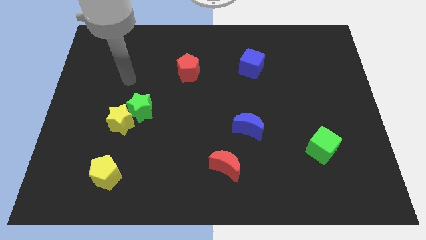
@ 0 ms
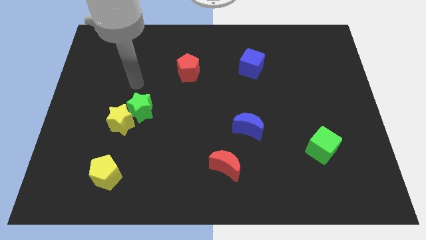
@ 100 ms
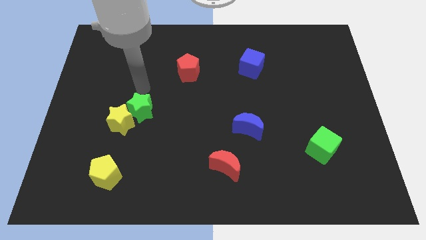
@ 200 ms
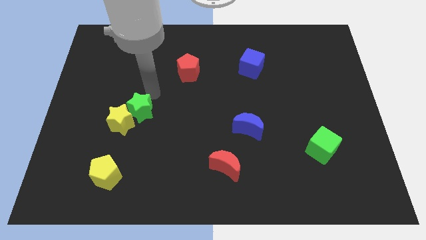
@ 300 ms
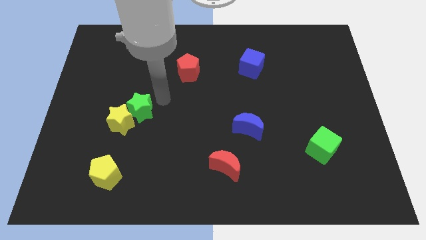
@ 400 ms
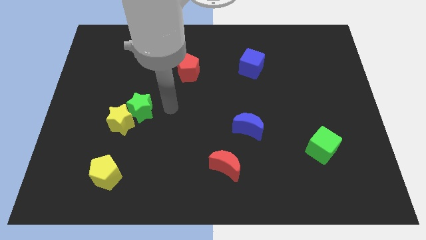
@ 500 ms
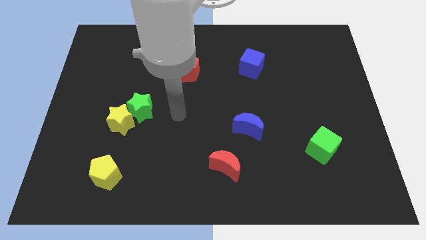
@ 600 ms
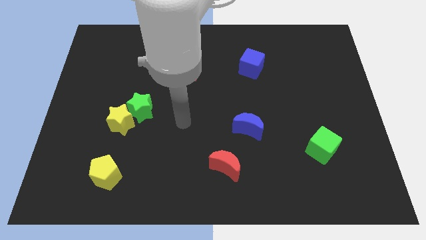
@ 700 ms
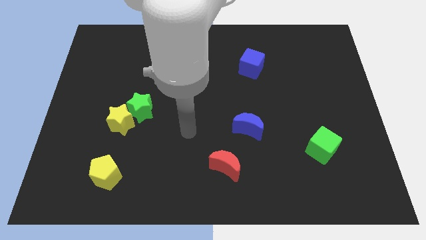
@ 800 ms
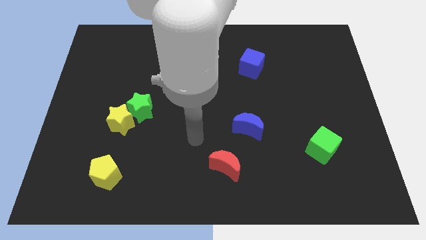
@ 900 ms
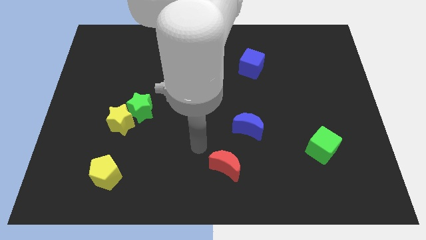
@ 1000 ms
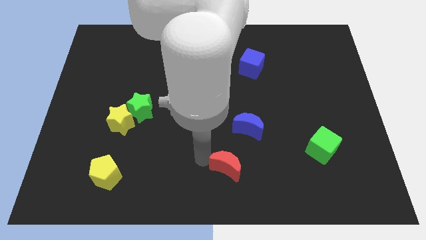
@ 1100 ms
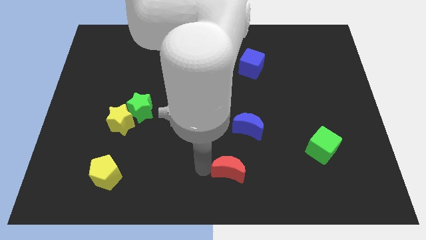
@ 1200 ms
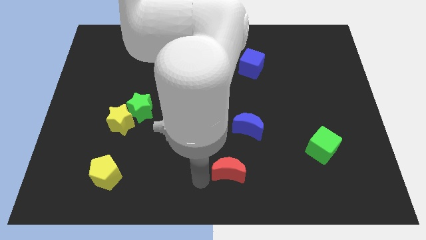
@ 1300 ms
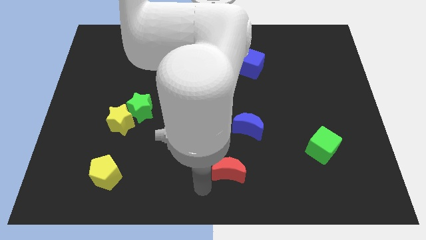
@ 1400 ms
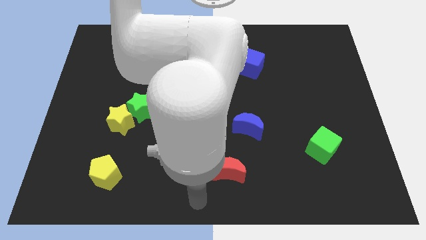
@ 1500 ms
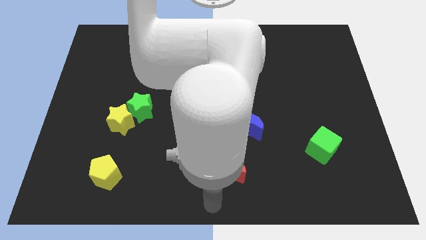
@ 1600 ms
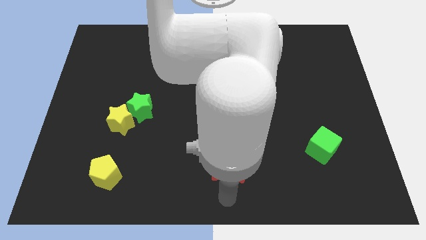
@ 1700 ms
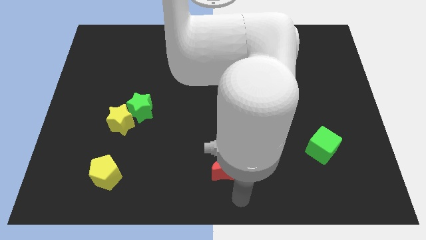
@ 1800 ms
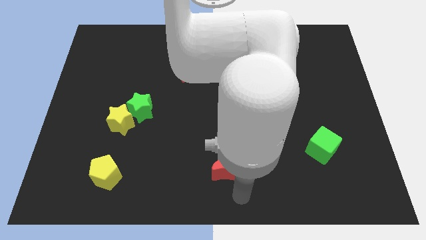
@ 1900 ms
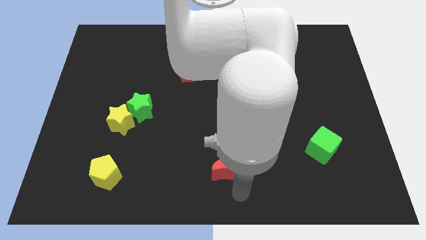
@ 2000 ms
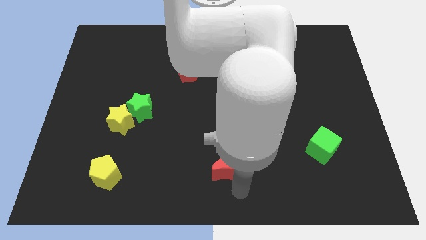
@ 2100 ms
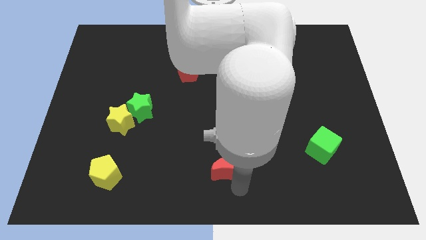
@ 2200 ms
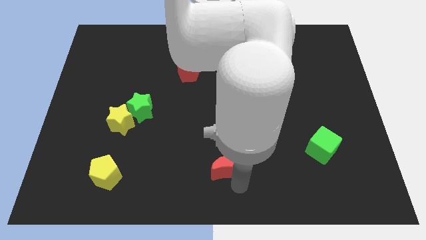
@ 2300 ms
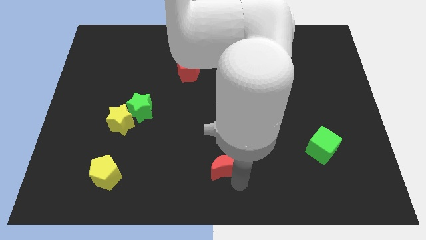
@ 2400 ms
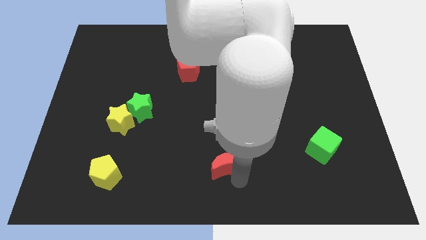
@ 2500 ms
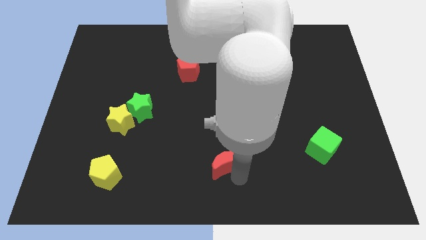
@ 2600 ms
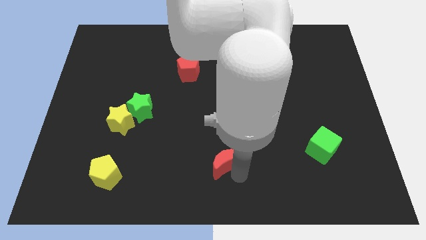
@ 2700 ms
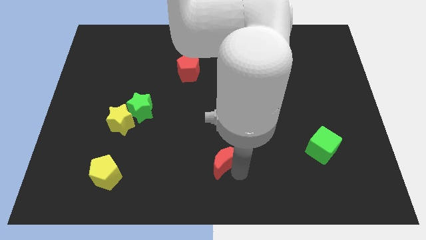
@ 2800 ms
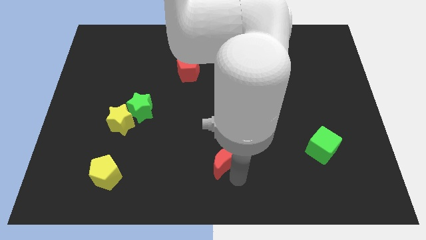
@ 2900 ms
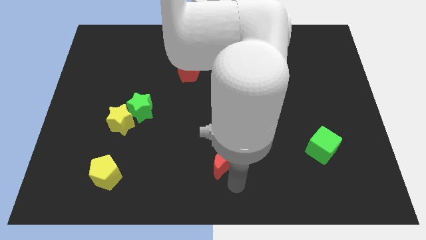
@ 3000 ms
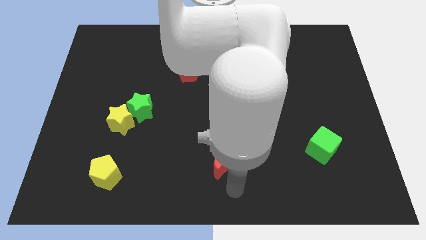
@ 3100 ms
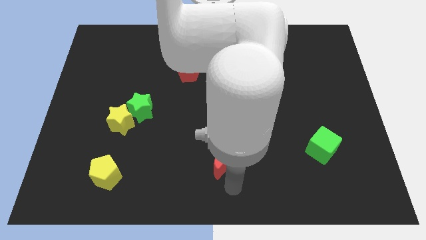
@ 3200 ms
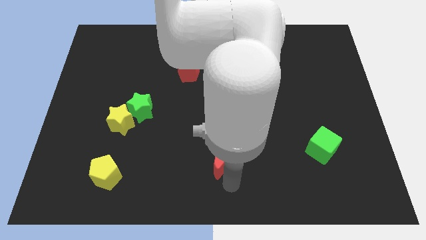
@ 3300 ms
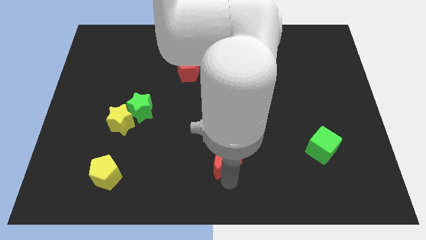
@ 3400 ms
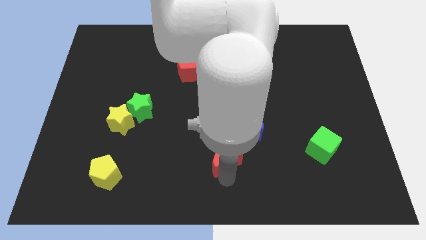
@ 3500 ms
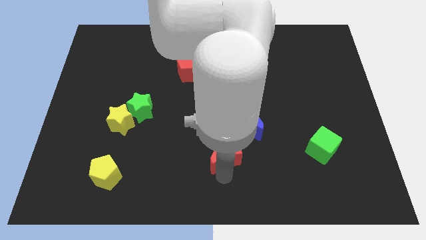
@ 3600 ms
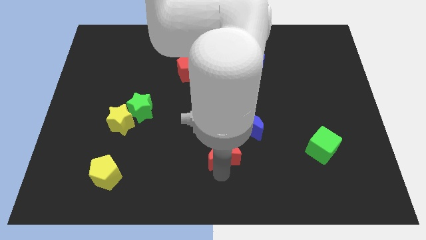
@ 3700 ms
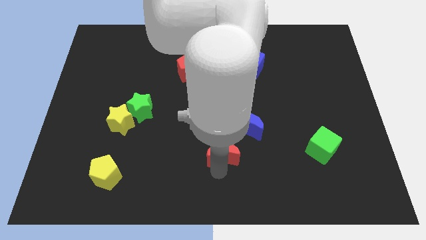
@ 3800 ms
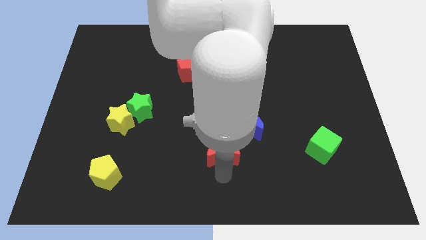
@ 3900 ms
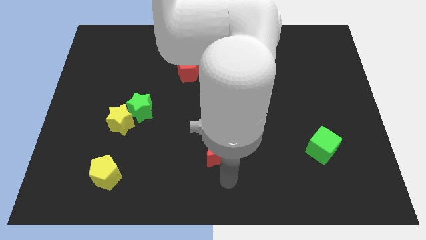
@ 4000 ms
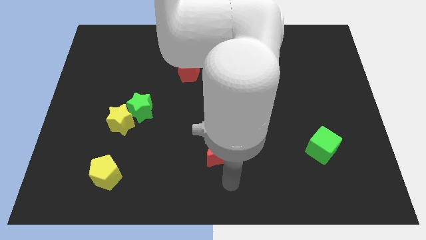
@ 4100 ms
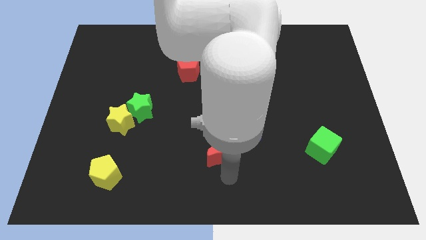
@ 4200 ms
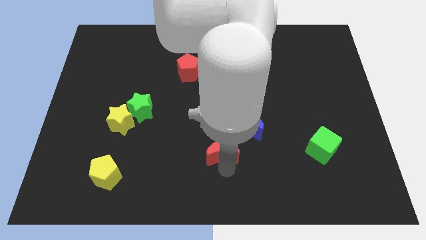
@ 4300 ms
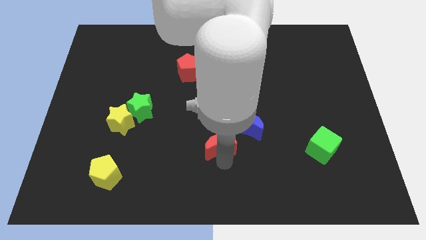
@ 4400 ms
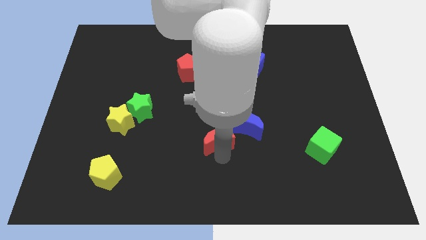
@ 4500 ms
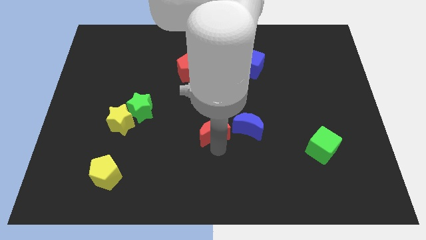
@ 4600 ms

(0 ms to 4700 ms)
slightly move the red moon upwards

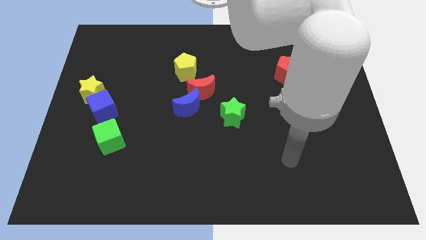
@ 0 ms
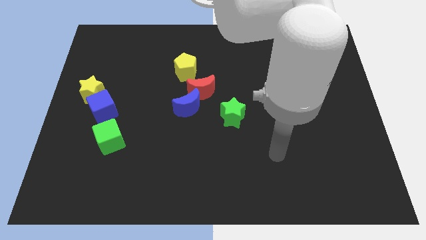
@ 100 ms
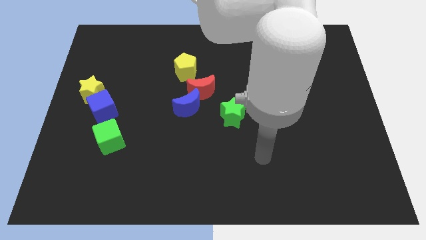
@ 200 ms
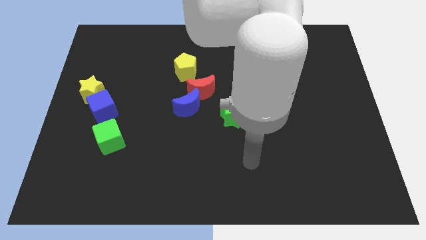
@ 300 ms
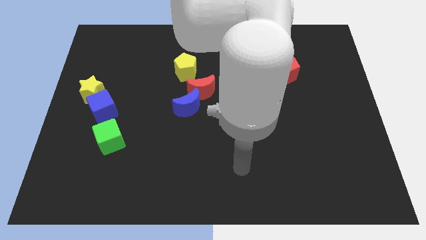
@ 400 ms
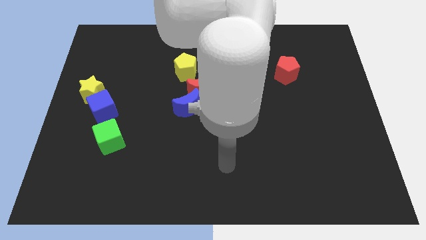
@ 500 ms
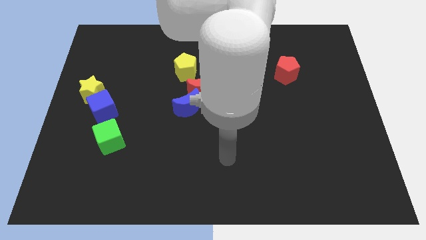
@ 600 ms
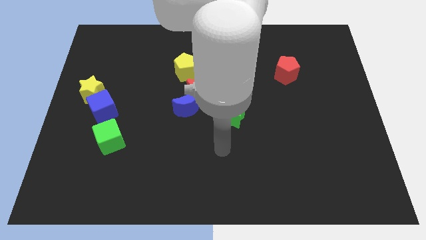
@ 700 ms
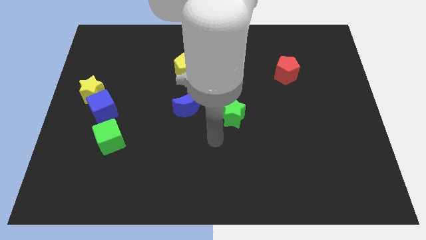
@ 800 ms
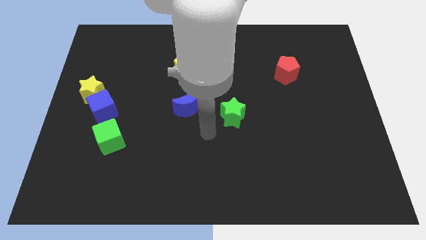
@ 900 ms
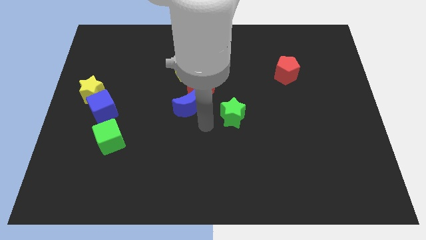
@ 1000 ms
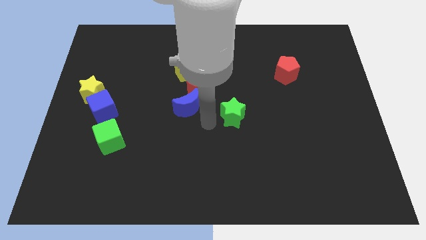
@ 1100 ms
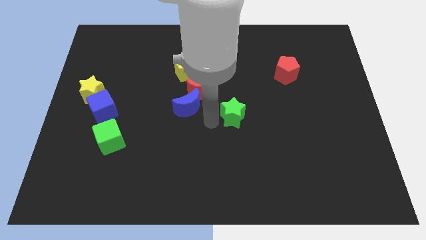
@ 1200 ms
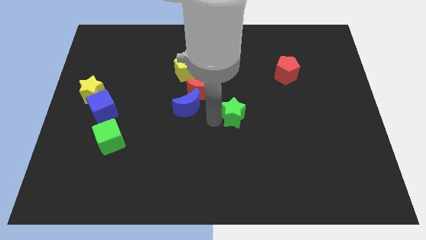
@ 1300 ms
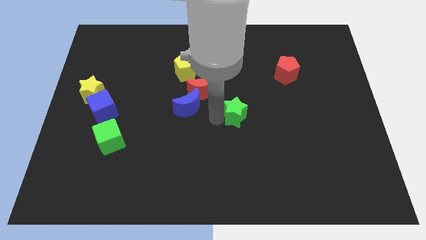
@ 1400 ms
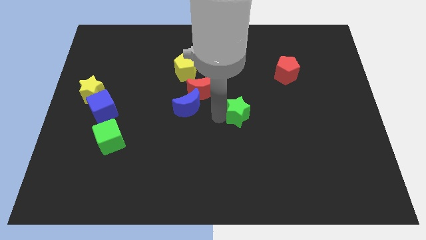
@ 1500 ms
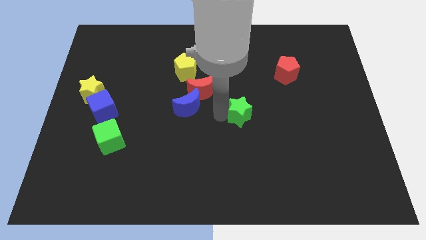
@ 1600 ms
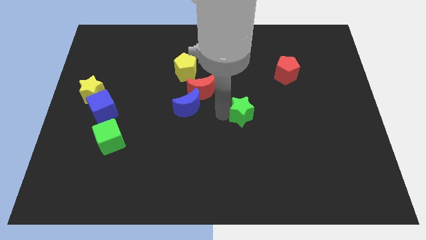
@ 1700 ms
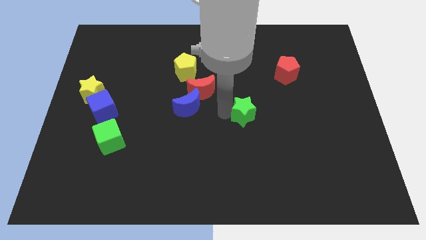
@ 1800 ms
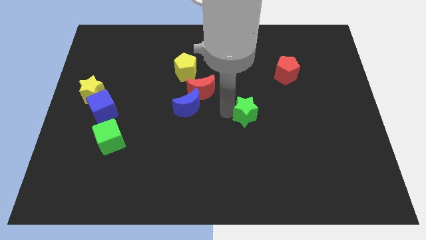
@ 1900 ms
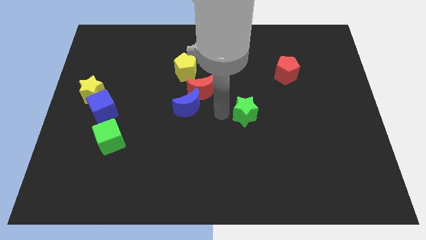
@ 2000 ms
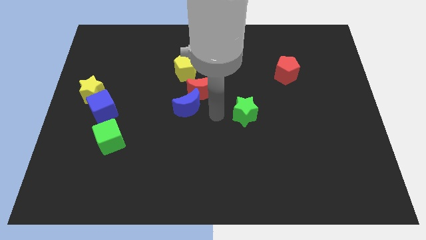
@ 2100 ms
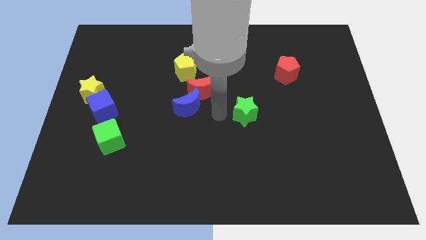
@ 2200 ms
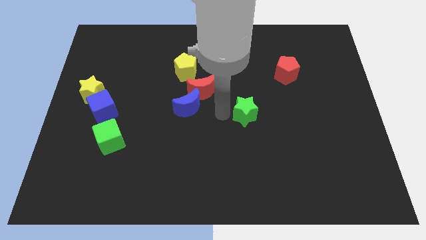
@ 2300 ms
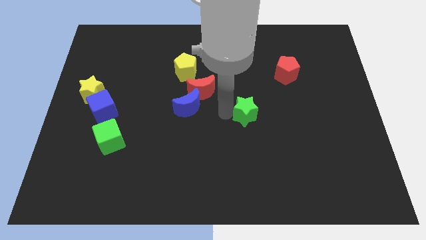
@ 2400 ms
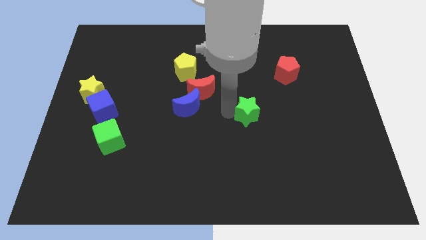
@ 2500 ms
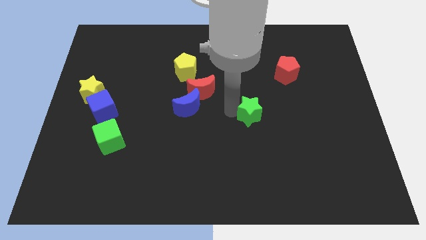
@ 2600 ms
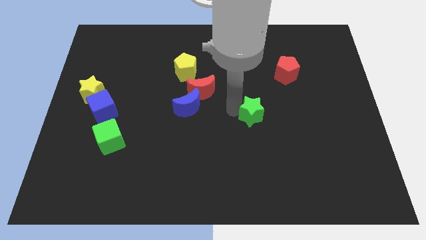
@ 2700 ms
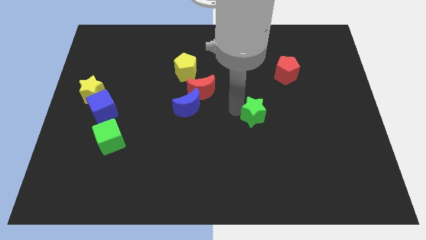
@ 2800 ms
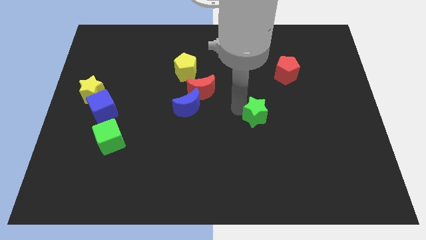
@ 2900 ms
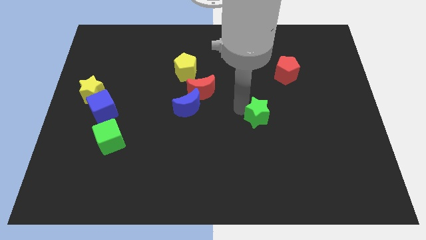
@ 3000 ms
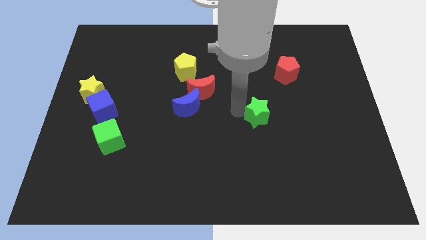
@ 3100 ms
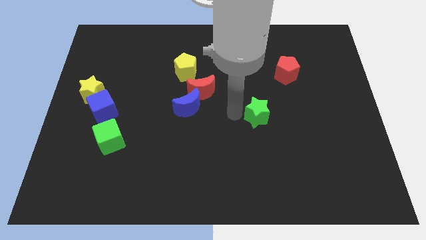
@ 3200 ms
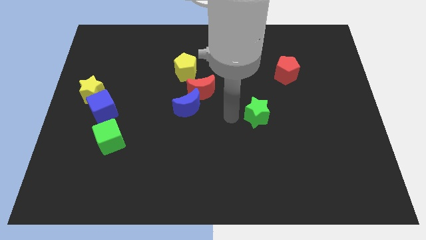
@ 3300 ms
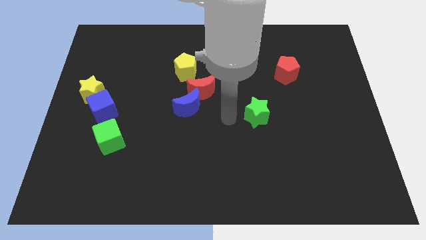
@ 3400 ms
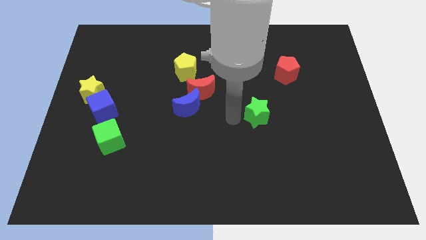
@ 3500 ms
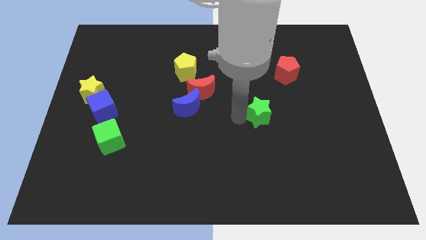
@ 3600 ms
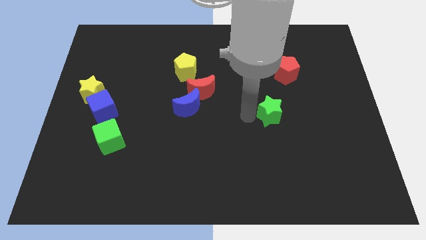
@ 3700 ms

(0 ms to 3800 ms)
slightly push the green star right
